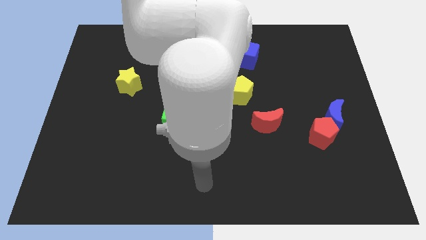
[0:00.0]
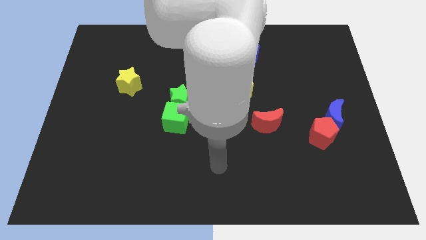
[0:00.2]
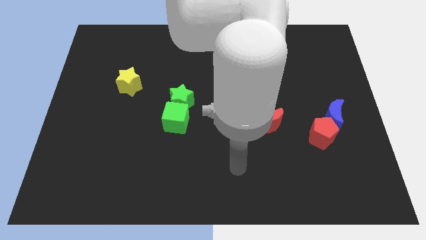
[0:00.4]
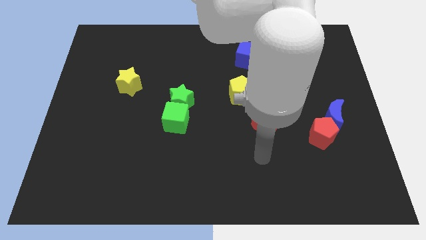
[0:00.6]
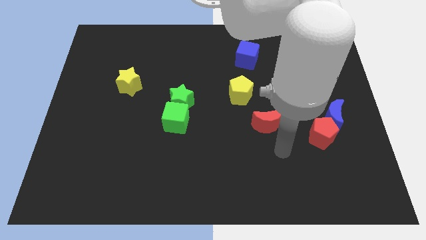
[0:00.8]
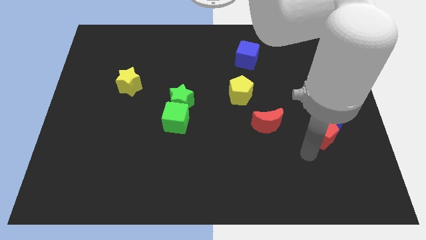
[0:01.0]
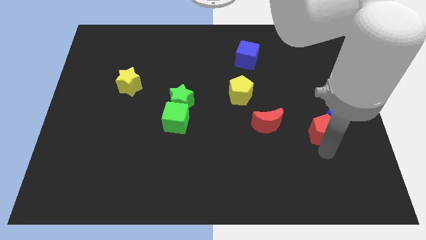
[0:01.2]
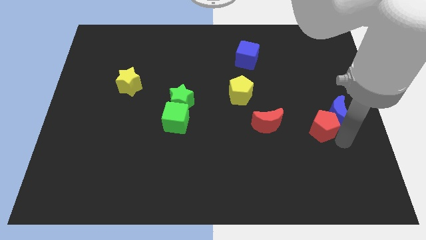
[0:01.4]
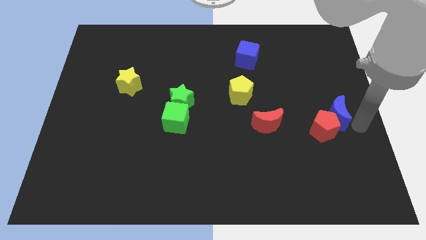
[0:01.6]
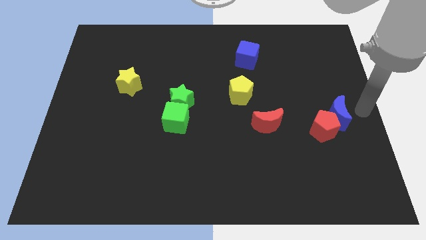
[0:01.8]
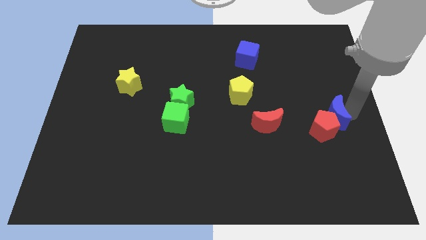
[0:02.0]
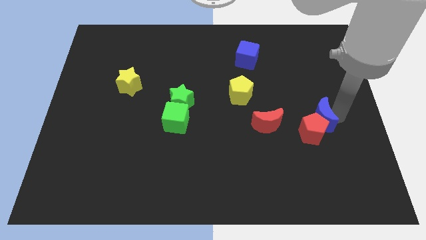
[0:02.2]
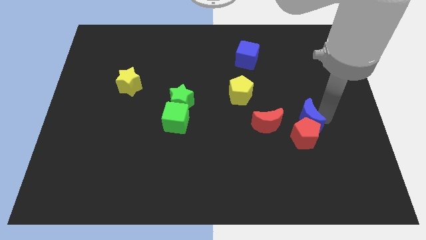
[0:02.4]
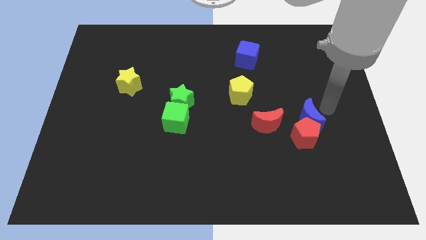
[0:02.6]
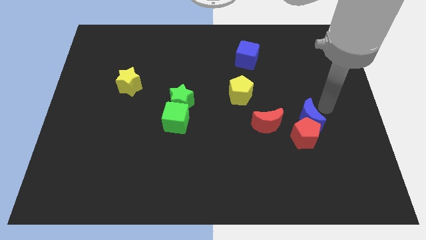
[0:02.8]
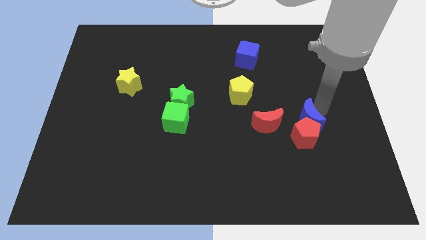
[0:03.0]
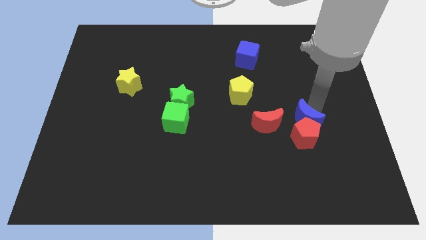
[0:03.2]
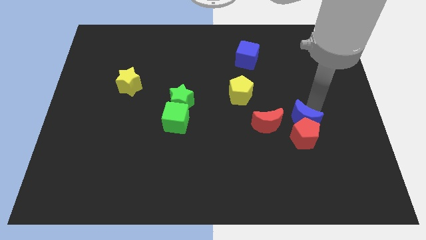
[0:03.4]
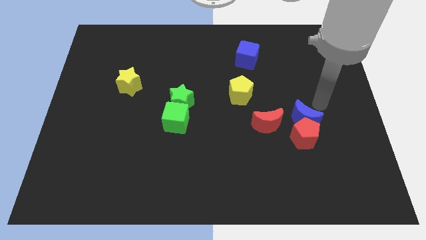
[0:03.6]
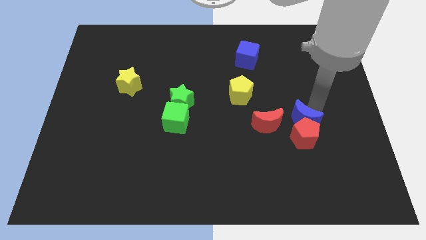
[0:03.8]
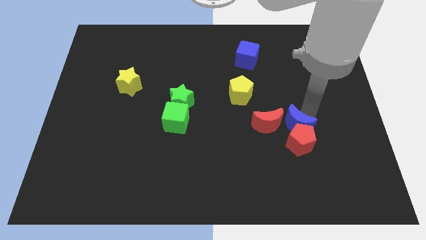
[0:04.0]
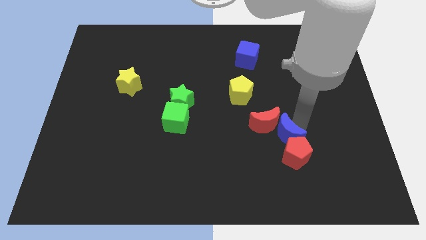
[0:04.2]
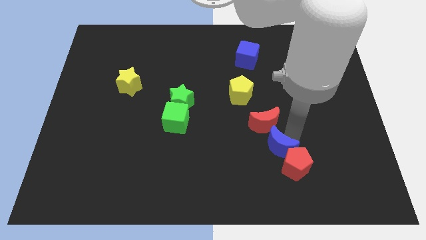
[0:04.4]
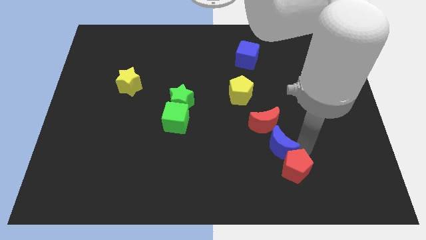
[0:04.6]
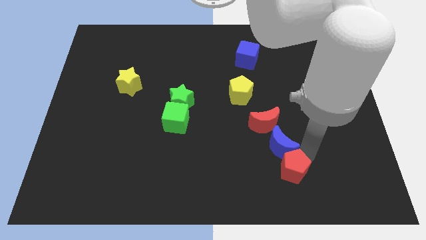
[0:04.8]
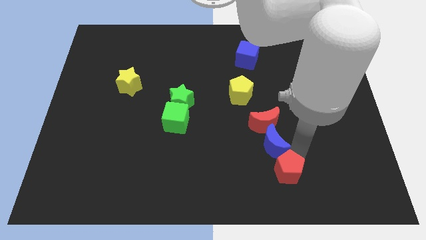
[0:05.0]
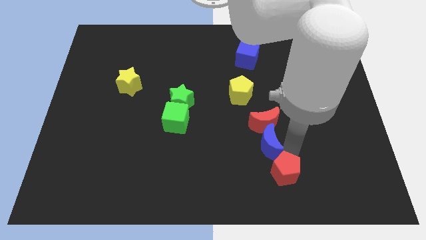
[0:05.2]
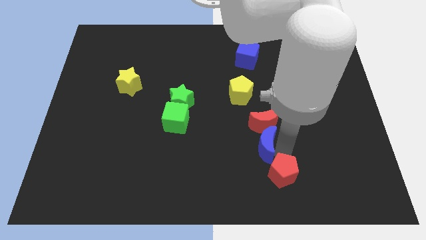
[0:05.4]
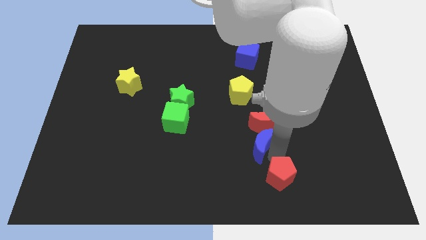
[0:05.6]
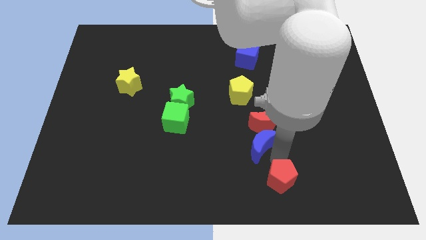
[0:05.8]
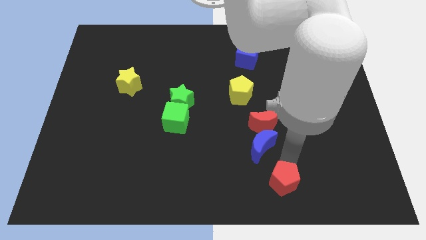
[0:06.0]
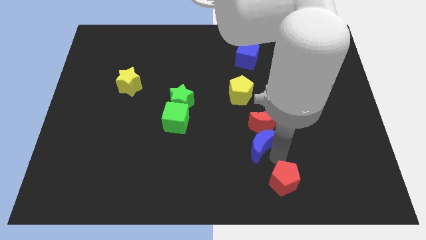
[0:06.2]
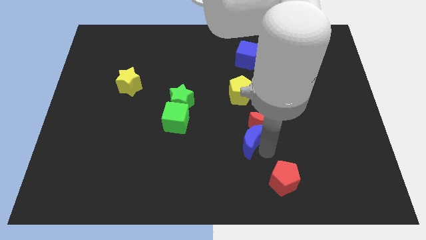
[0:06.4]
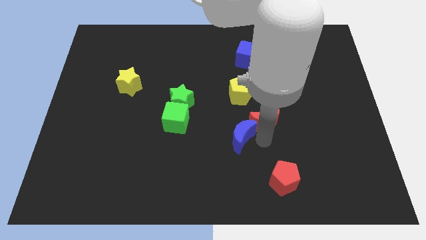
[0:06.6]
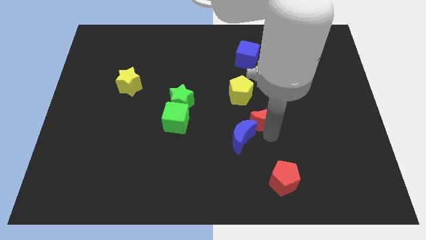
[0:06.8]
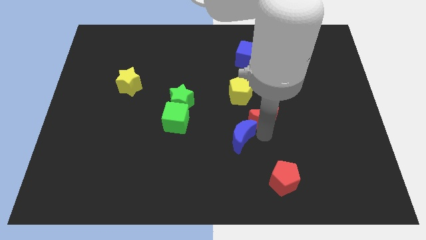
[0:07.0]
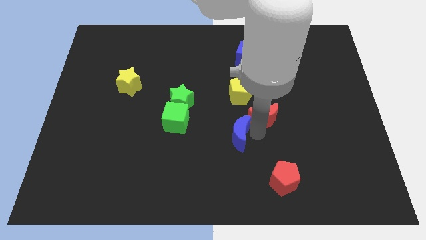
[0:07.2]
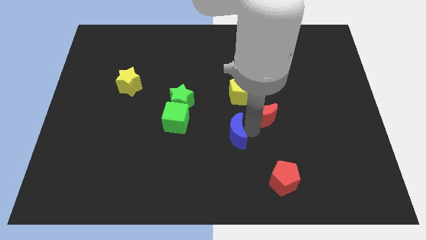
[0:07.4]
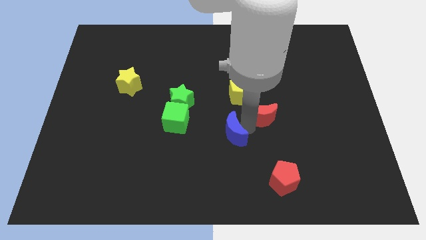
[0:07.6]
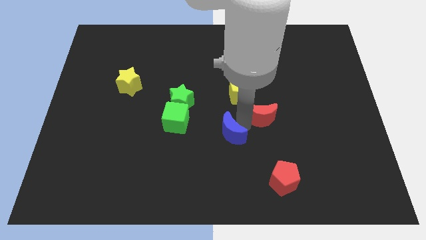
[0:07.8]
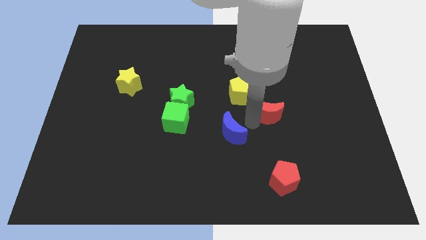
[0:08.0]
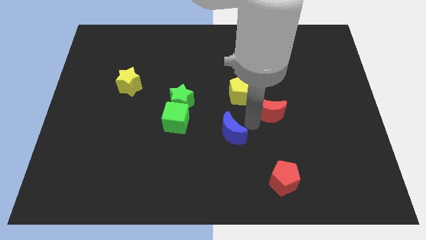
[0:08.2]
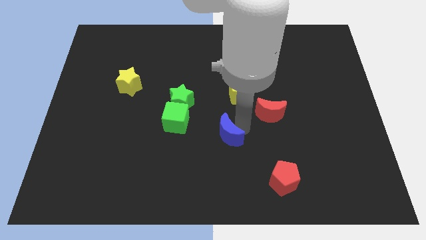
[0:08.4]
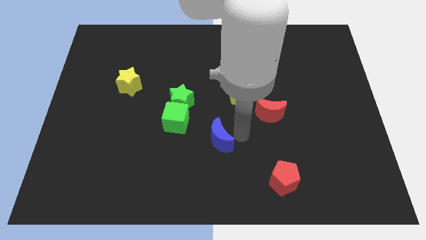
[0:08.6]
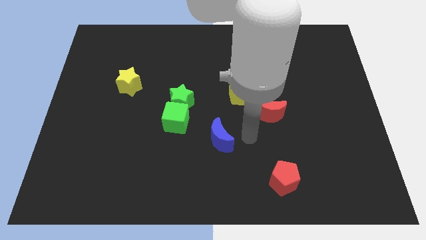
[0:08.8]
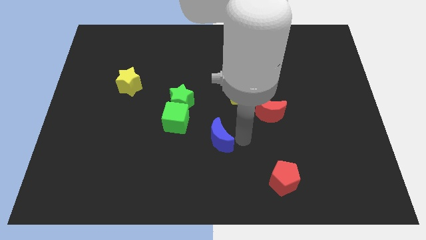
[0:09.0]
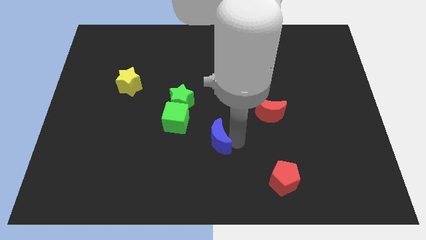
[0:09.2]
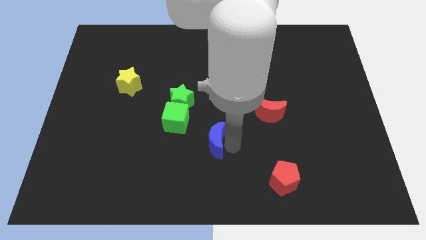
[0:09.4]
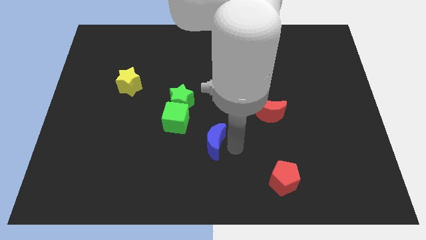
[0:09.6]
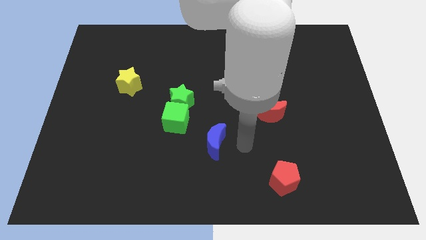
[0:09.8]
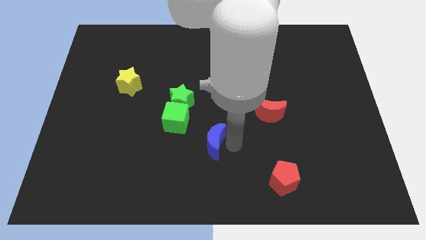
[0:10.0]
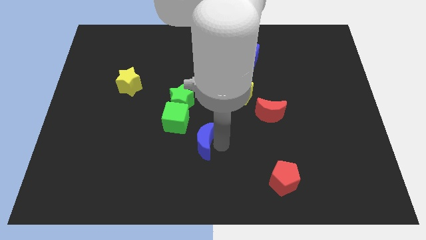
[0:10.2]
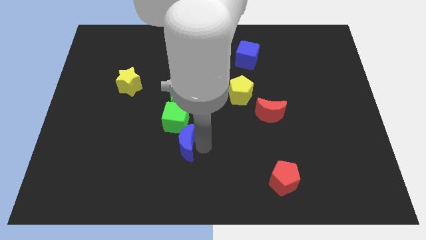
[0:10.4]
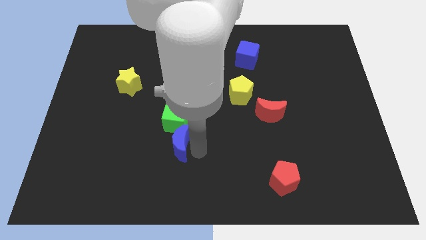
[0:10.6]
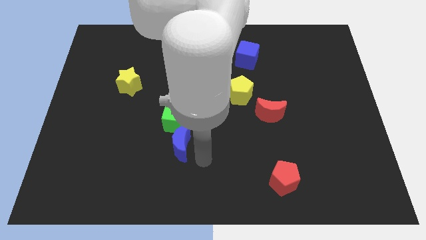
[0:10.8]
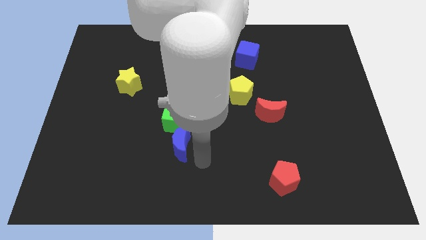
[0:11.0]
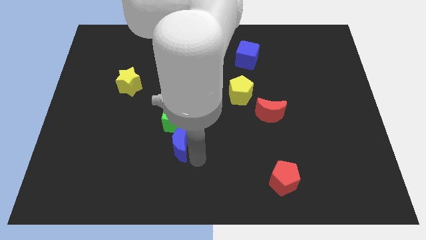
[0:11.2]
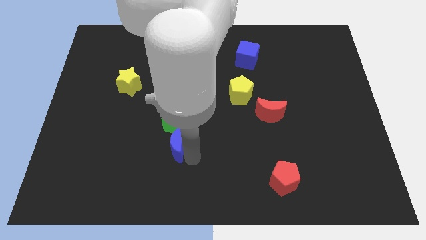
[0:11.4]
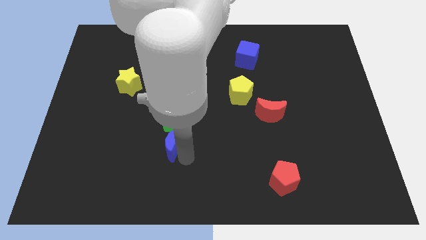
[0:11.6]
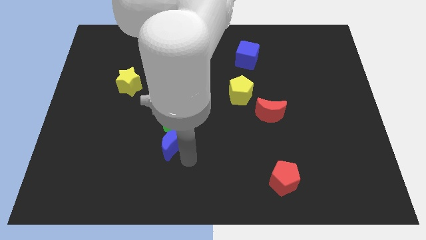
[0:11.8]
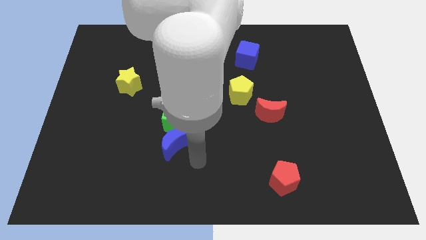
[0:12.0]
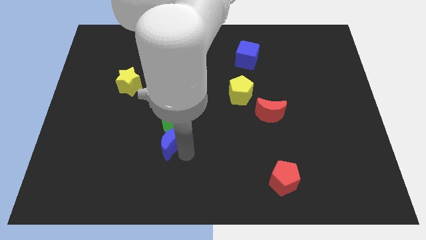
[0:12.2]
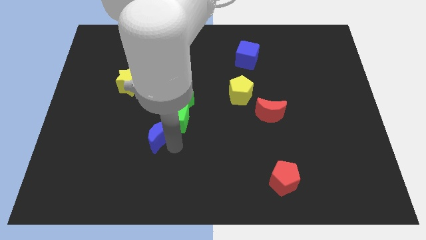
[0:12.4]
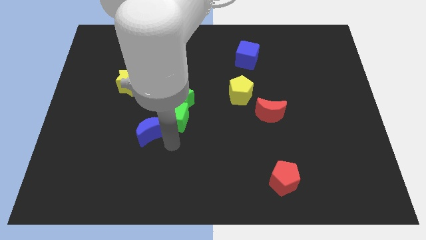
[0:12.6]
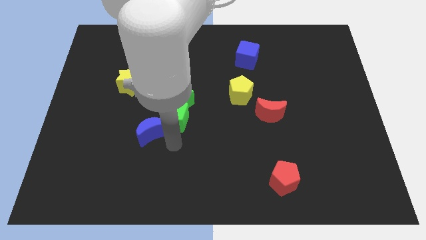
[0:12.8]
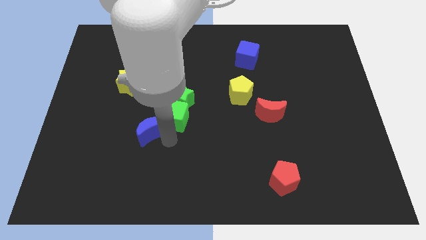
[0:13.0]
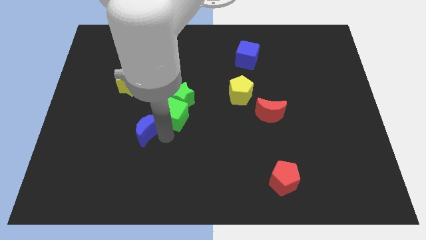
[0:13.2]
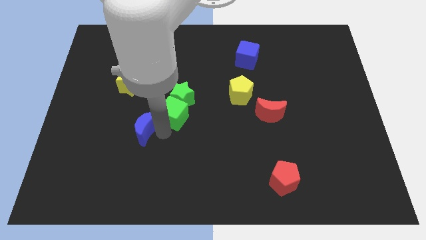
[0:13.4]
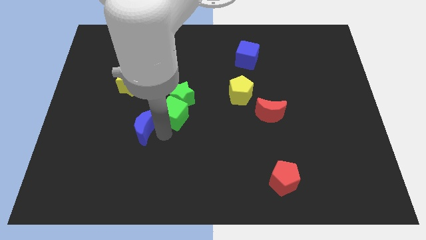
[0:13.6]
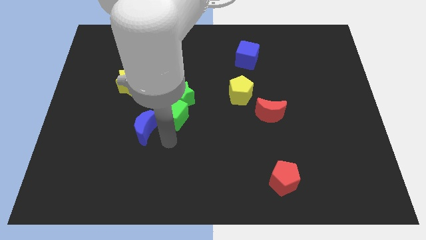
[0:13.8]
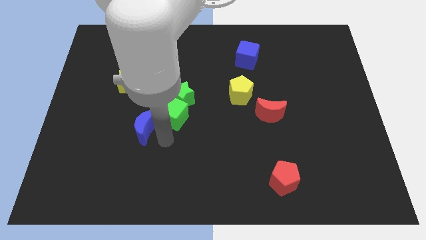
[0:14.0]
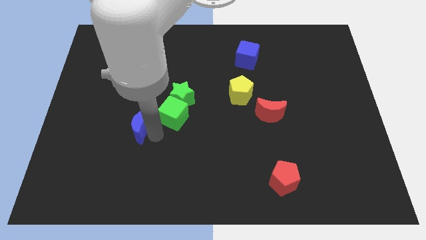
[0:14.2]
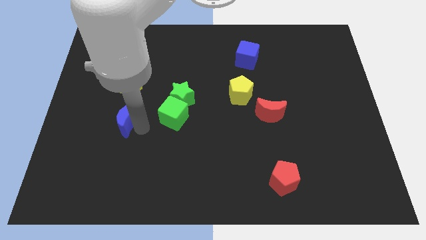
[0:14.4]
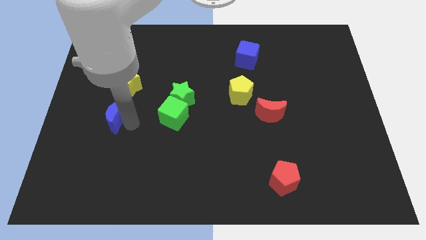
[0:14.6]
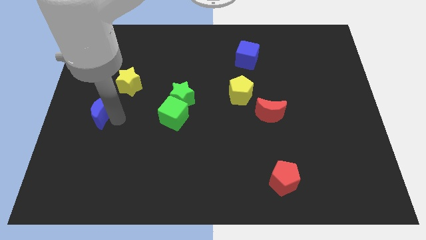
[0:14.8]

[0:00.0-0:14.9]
slide the blue moon to the center left
